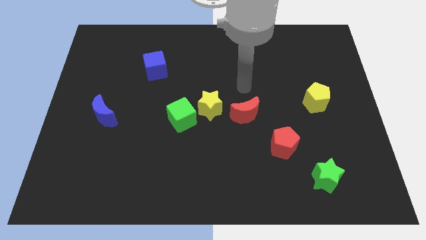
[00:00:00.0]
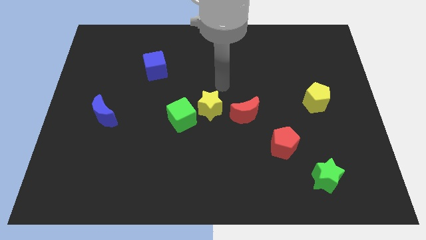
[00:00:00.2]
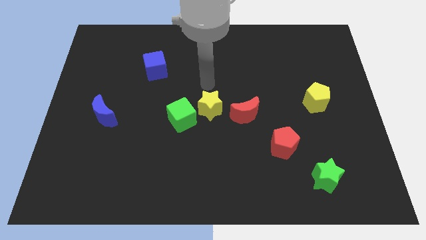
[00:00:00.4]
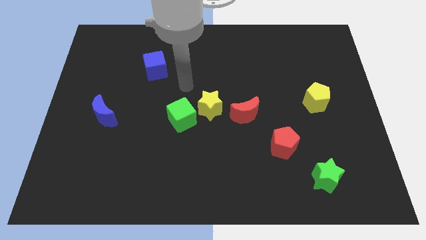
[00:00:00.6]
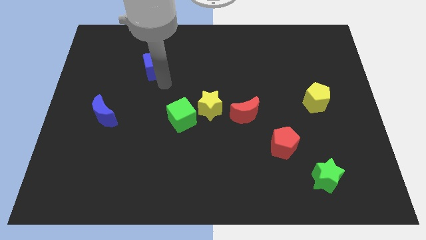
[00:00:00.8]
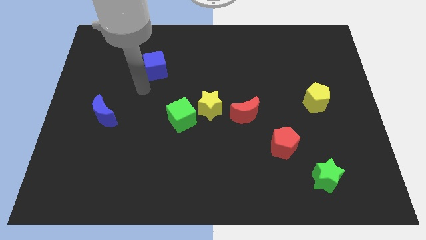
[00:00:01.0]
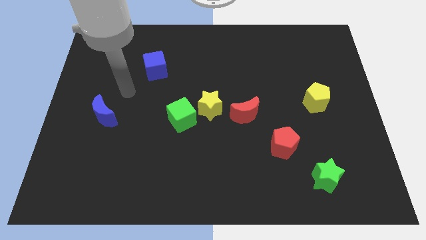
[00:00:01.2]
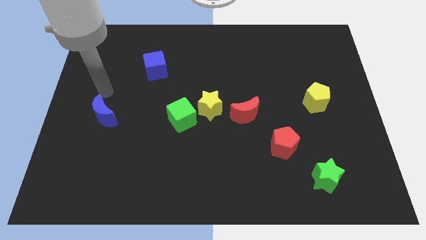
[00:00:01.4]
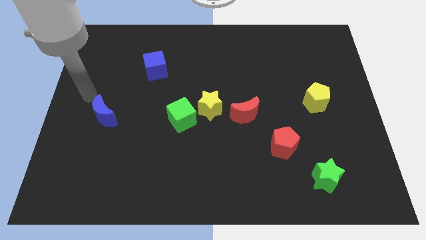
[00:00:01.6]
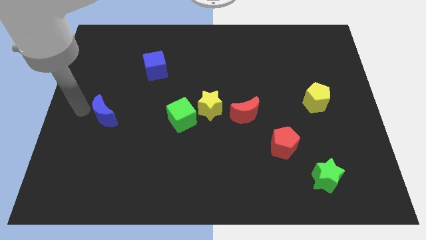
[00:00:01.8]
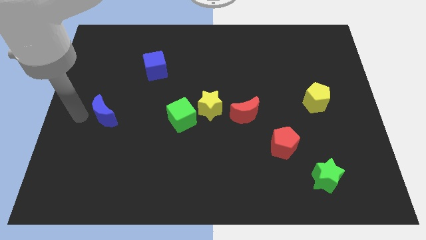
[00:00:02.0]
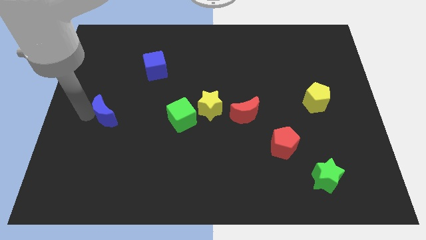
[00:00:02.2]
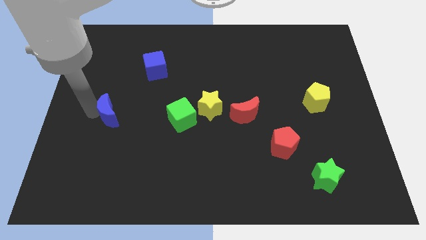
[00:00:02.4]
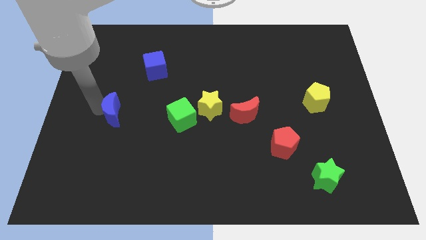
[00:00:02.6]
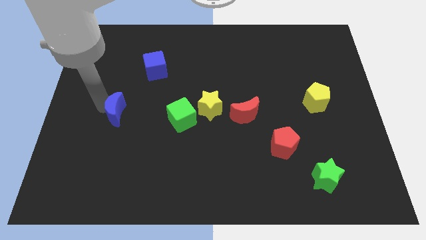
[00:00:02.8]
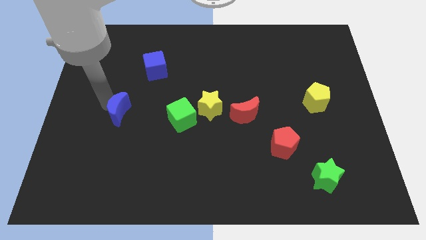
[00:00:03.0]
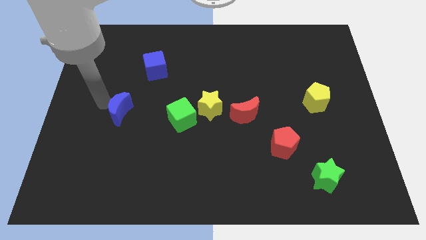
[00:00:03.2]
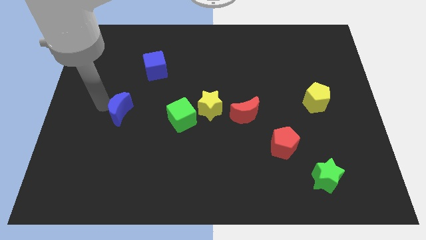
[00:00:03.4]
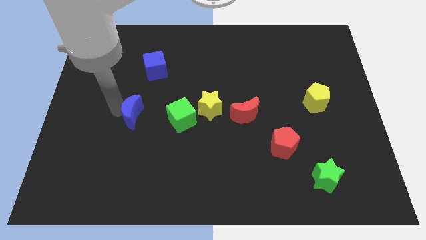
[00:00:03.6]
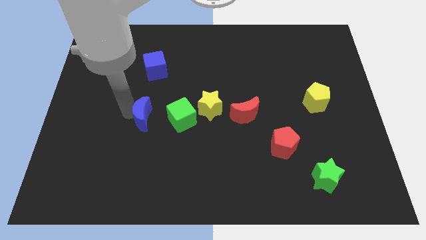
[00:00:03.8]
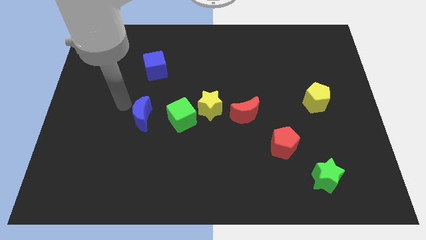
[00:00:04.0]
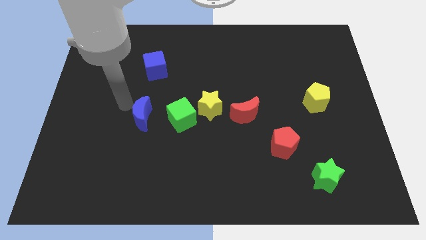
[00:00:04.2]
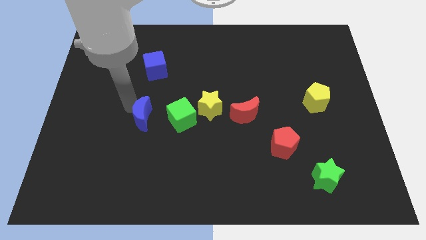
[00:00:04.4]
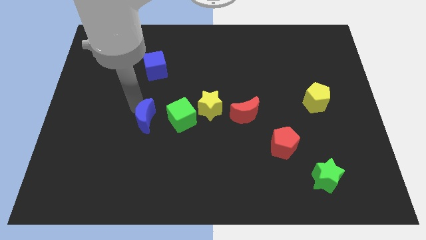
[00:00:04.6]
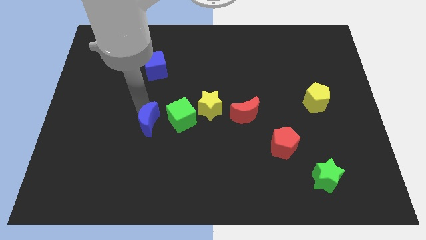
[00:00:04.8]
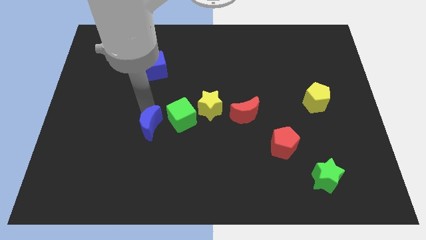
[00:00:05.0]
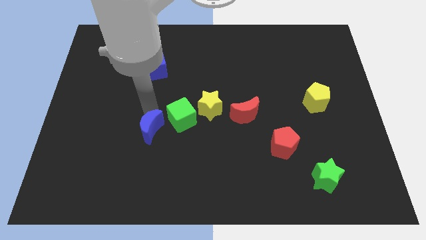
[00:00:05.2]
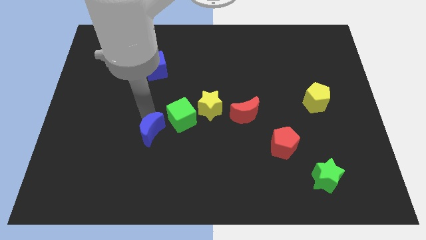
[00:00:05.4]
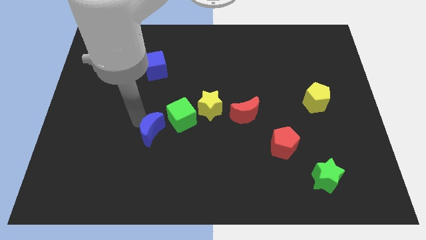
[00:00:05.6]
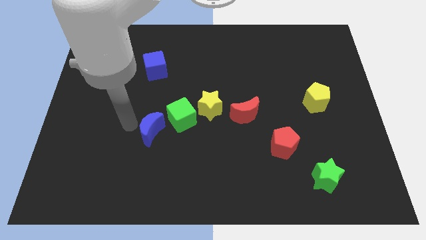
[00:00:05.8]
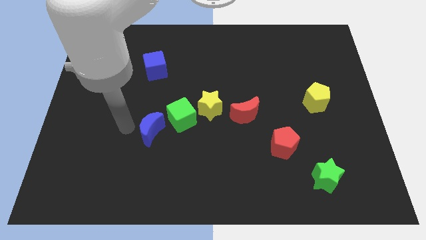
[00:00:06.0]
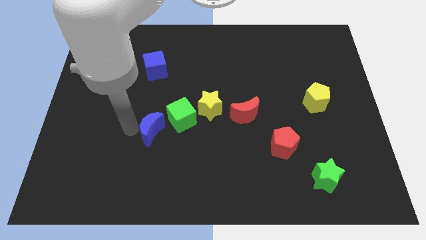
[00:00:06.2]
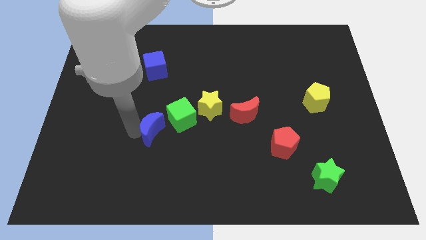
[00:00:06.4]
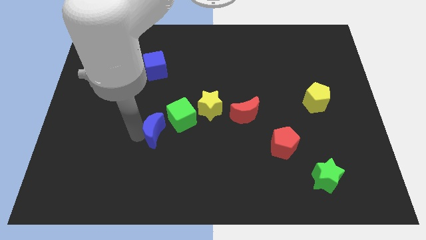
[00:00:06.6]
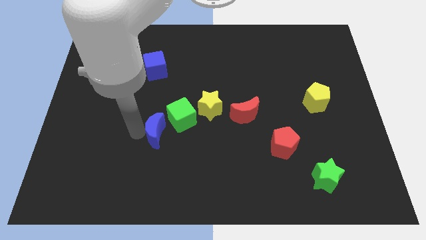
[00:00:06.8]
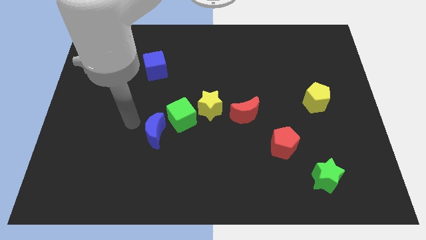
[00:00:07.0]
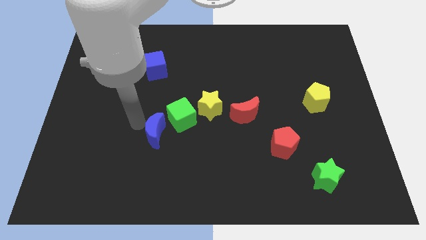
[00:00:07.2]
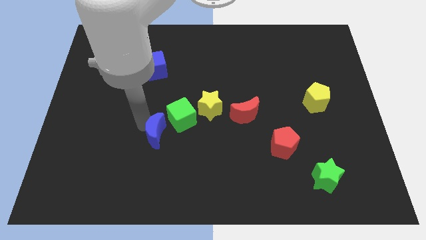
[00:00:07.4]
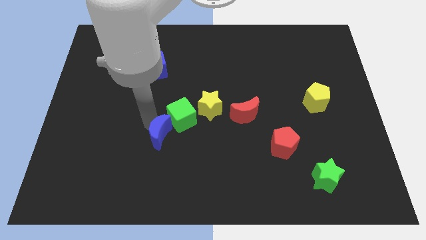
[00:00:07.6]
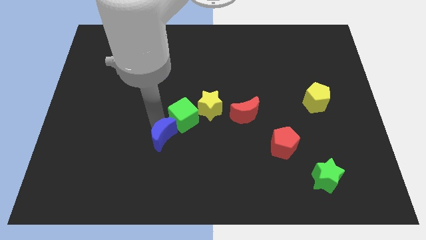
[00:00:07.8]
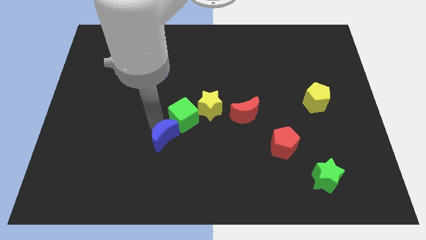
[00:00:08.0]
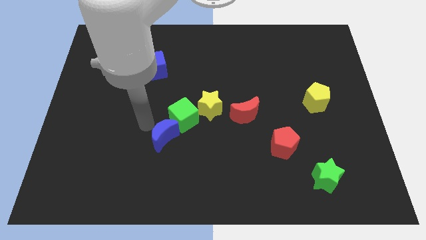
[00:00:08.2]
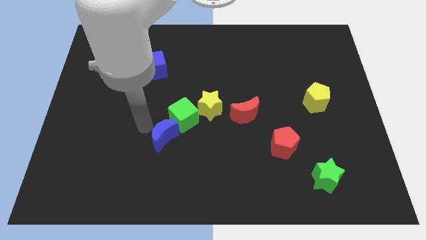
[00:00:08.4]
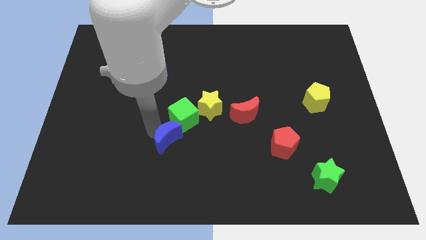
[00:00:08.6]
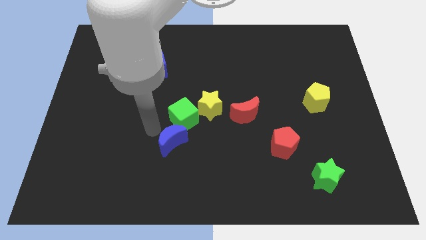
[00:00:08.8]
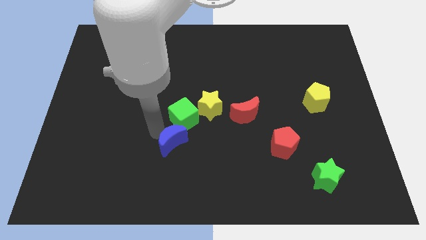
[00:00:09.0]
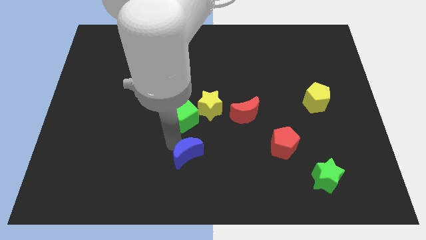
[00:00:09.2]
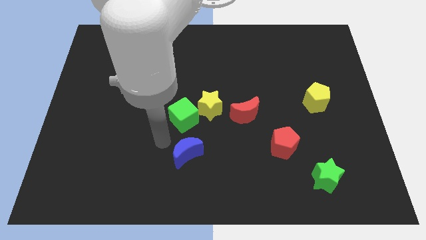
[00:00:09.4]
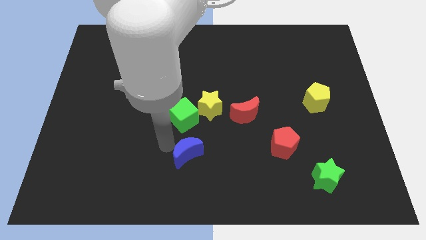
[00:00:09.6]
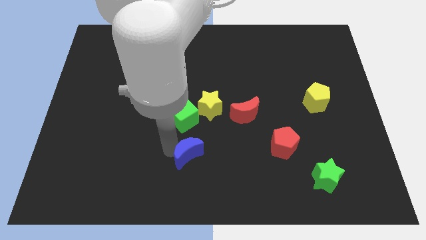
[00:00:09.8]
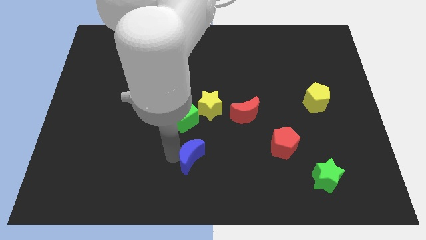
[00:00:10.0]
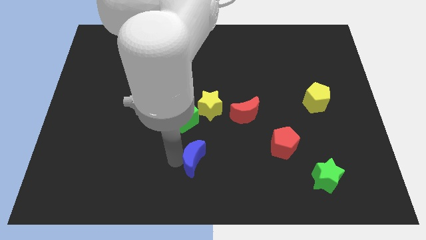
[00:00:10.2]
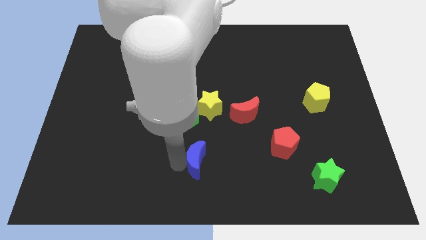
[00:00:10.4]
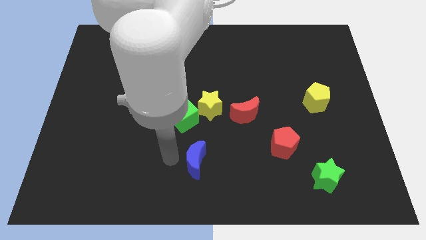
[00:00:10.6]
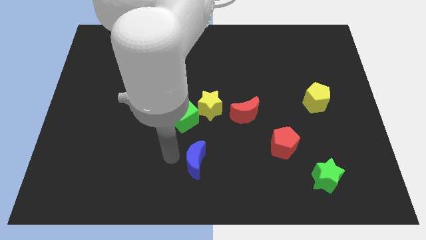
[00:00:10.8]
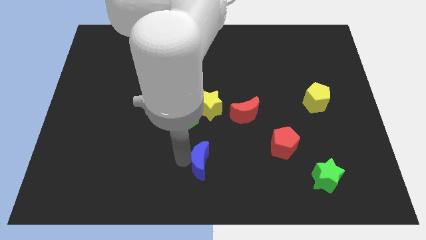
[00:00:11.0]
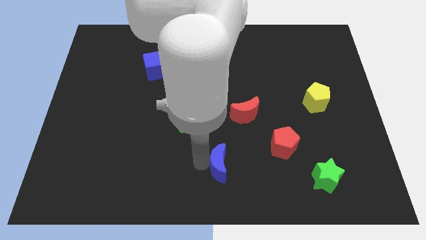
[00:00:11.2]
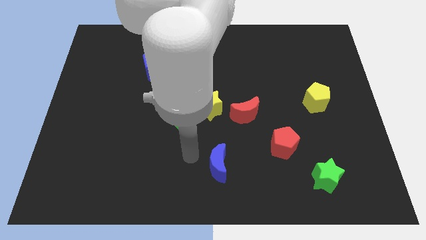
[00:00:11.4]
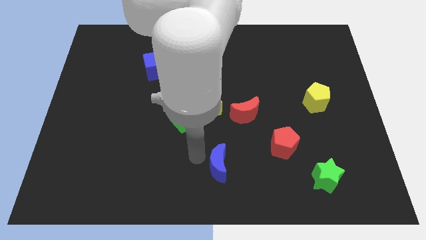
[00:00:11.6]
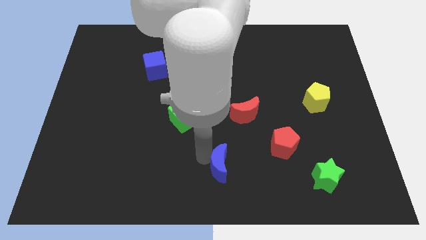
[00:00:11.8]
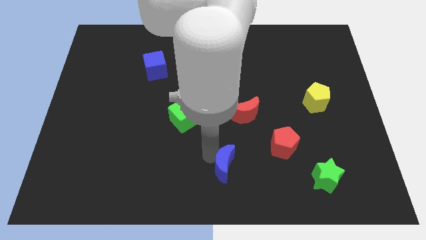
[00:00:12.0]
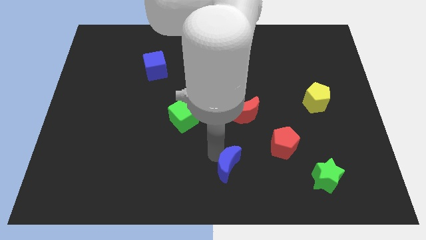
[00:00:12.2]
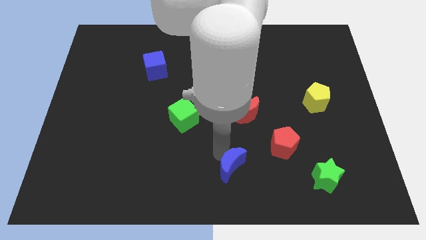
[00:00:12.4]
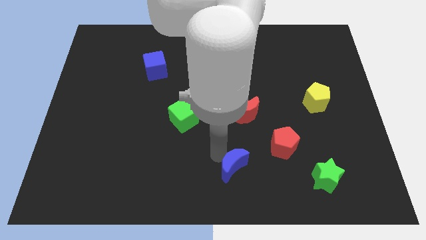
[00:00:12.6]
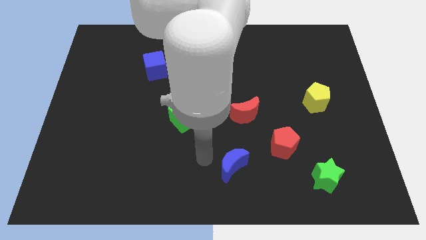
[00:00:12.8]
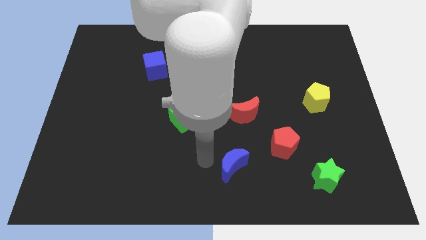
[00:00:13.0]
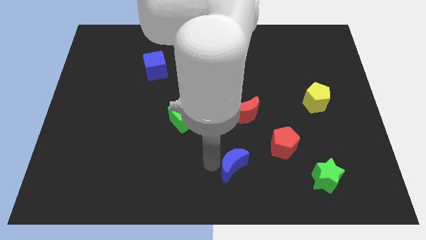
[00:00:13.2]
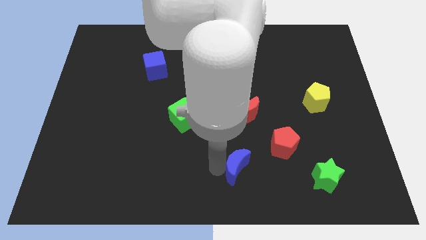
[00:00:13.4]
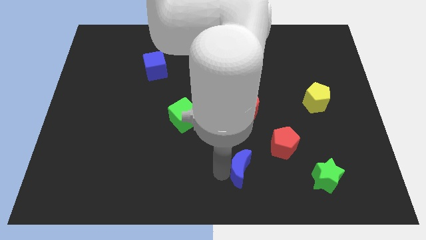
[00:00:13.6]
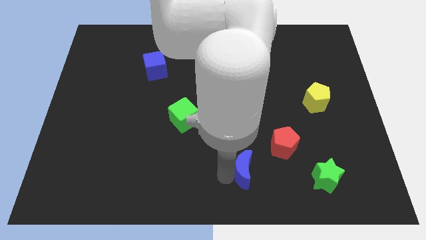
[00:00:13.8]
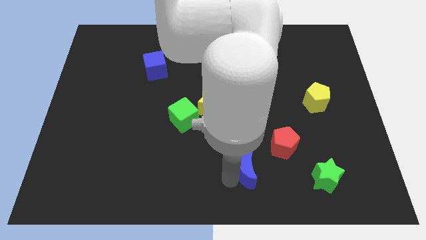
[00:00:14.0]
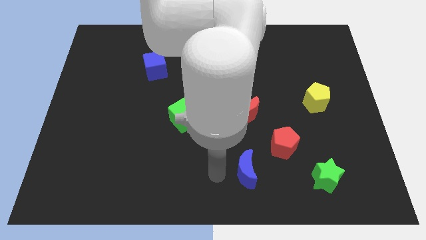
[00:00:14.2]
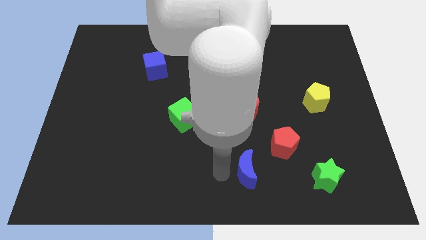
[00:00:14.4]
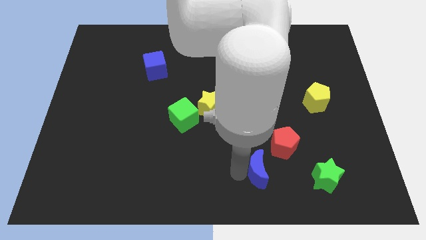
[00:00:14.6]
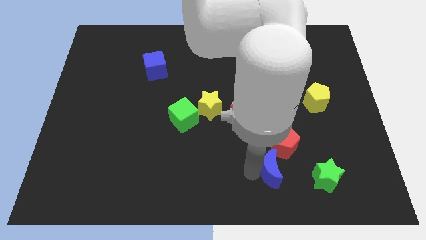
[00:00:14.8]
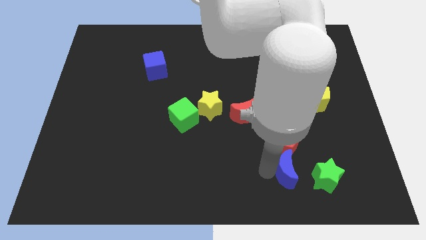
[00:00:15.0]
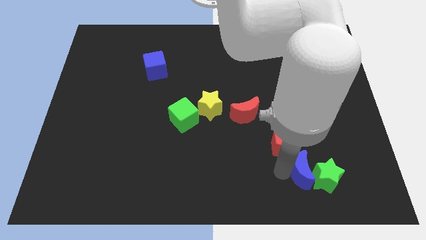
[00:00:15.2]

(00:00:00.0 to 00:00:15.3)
slide the blue moon close to the green star
